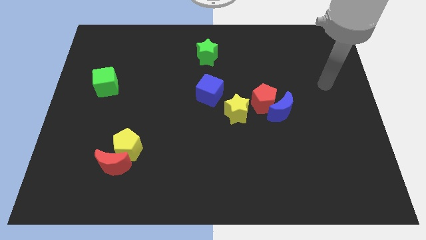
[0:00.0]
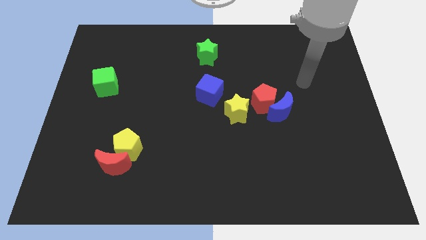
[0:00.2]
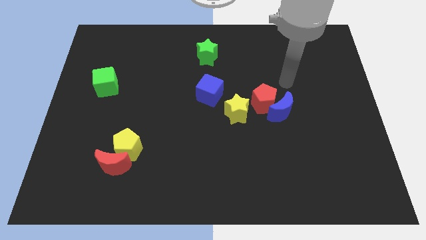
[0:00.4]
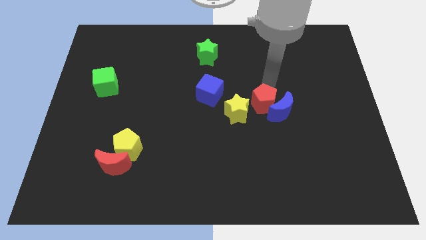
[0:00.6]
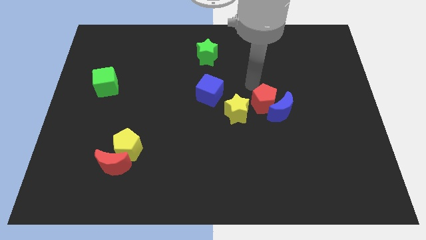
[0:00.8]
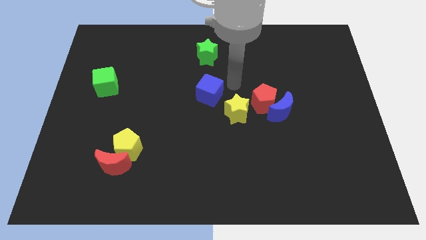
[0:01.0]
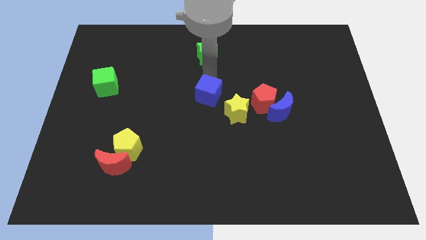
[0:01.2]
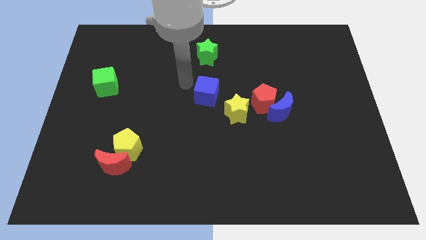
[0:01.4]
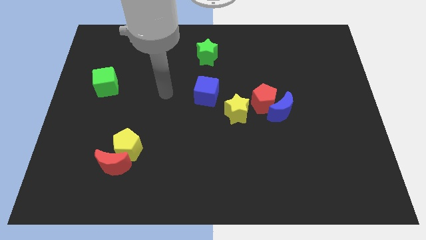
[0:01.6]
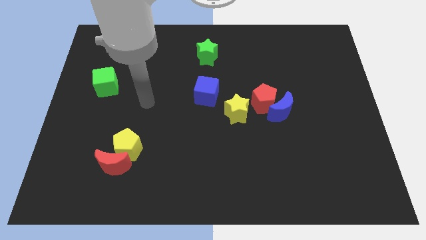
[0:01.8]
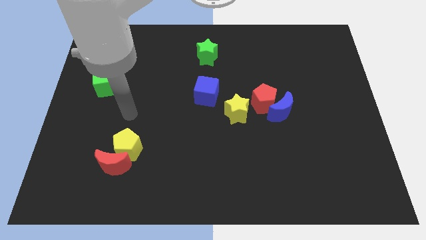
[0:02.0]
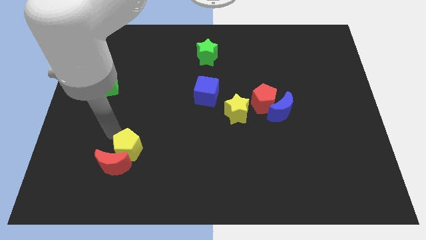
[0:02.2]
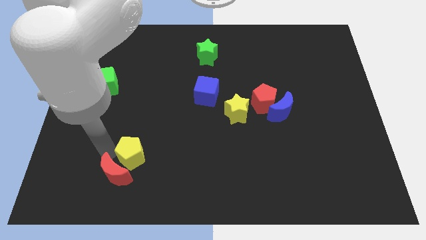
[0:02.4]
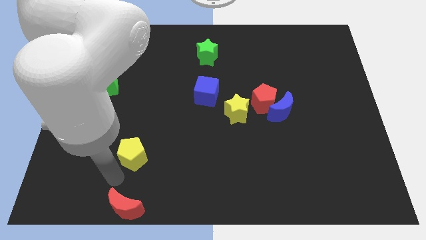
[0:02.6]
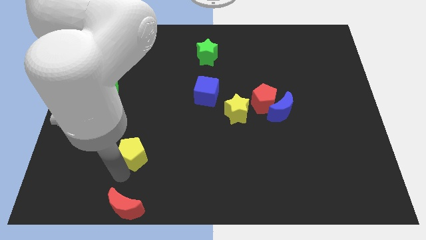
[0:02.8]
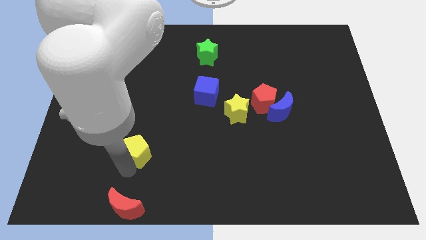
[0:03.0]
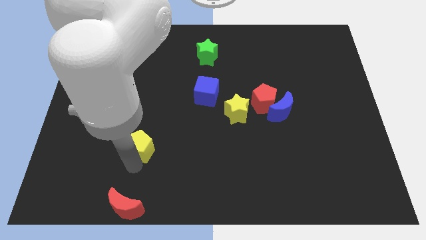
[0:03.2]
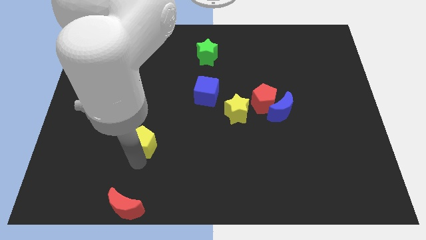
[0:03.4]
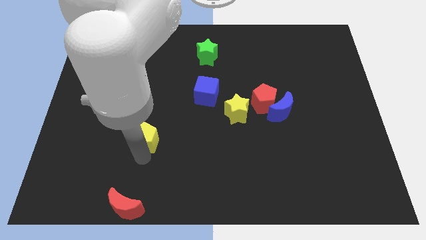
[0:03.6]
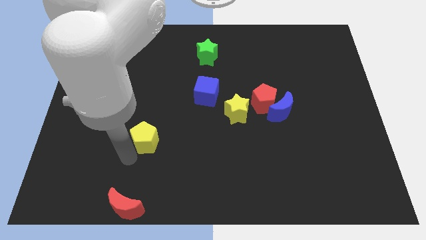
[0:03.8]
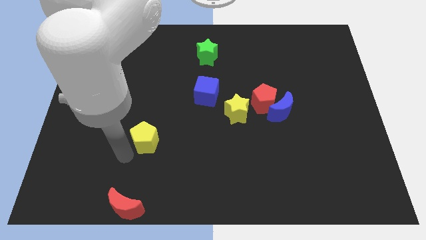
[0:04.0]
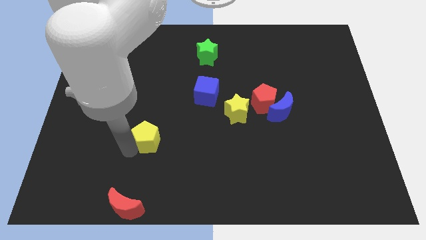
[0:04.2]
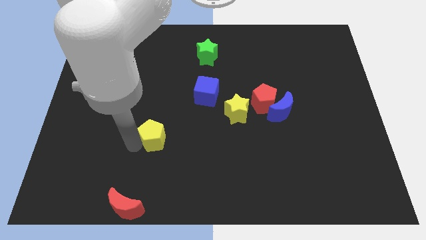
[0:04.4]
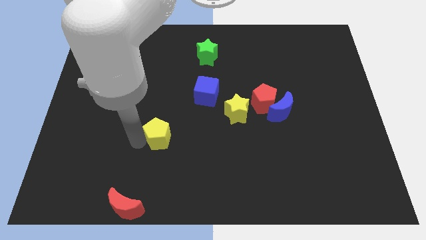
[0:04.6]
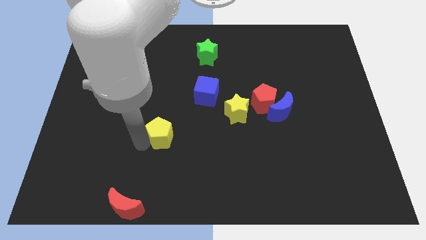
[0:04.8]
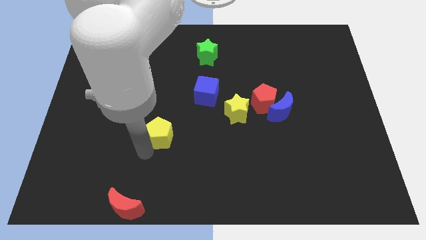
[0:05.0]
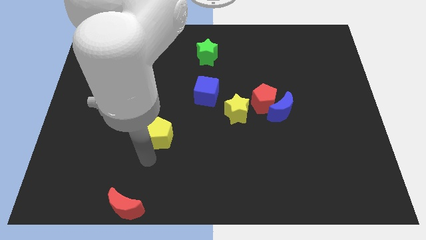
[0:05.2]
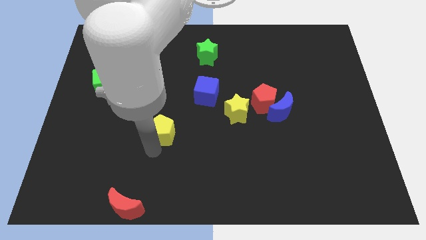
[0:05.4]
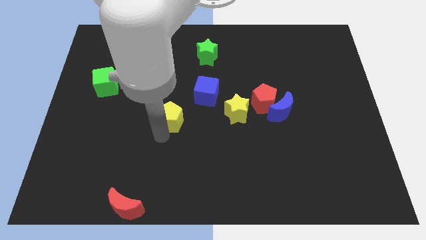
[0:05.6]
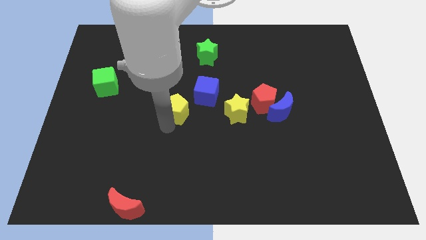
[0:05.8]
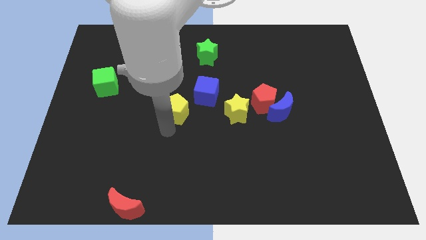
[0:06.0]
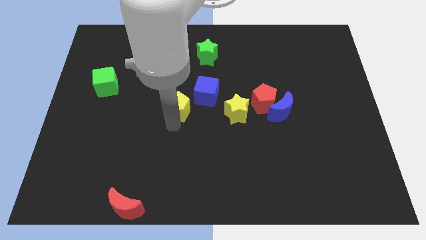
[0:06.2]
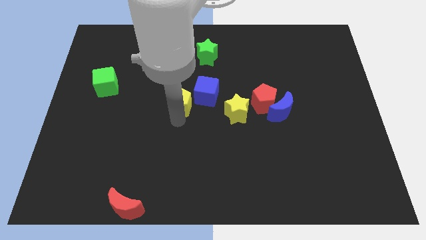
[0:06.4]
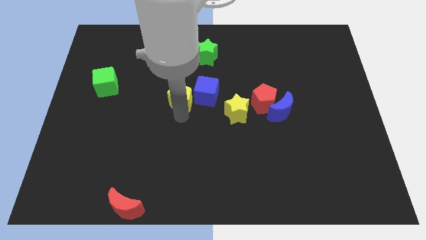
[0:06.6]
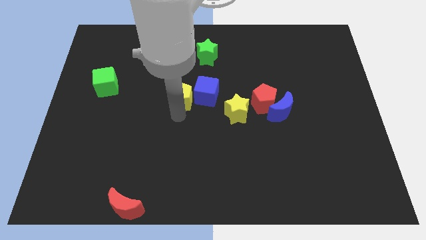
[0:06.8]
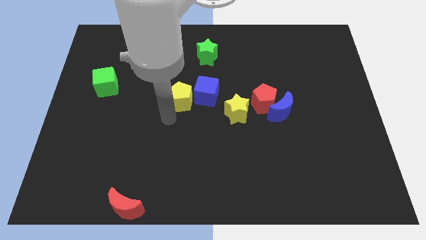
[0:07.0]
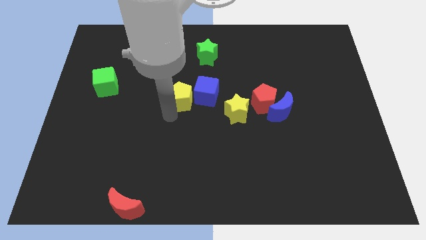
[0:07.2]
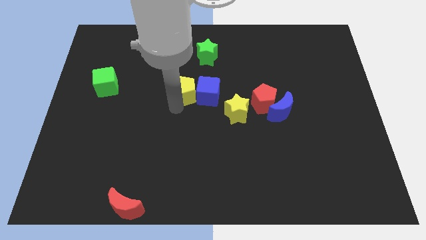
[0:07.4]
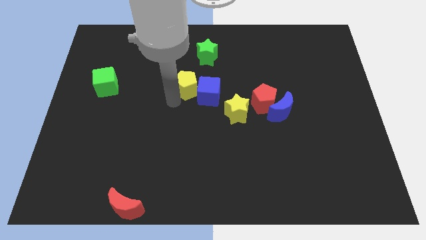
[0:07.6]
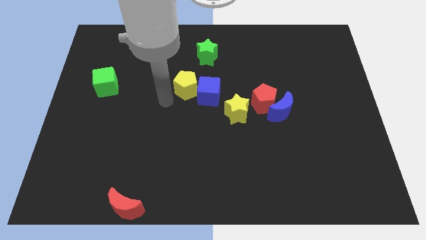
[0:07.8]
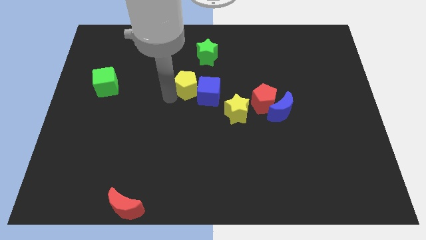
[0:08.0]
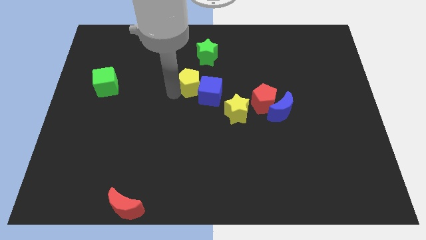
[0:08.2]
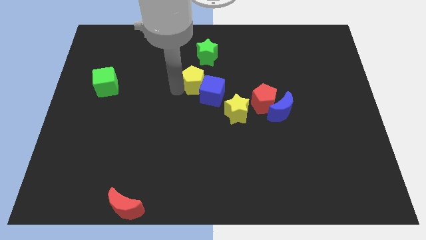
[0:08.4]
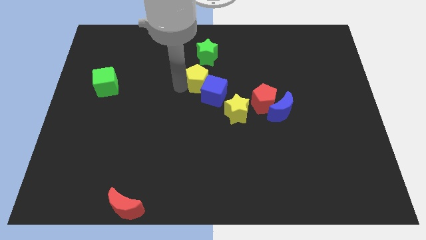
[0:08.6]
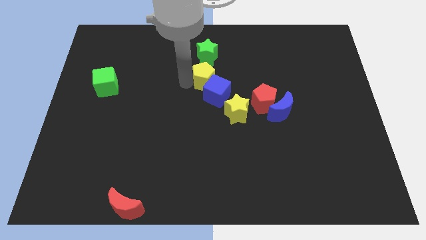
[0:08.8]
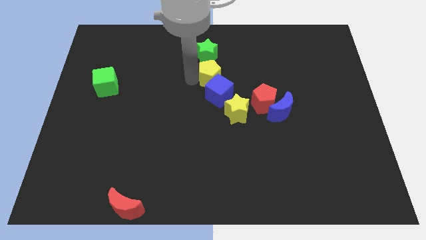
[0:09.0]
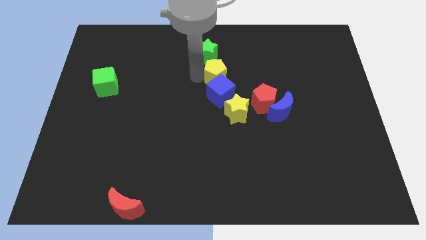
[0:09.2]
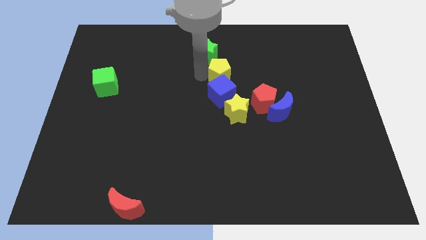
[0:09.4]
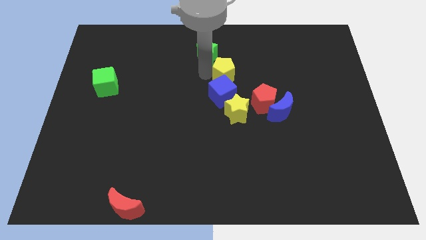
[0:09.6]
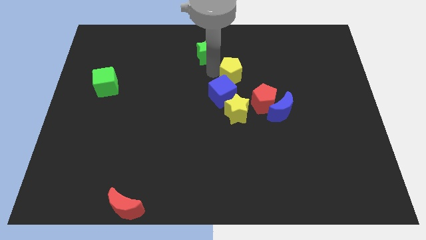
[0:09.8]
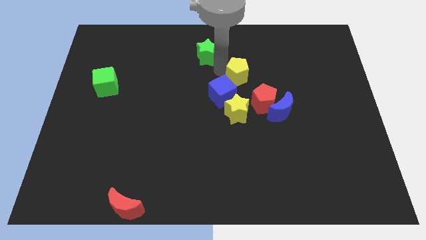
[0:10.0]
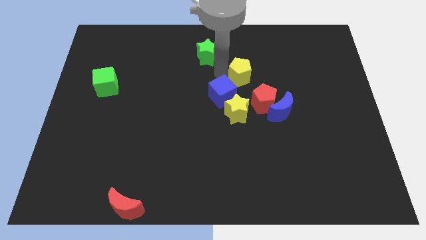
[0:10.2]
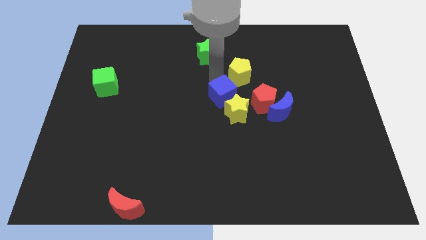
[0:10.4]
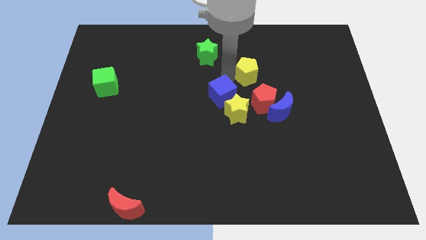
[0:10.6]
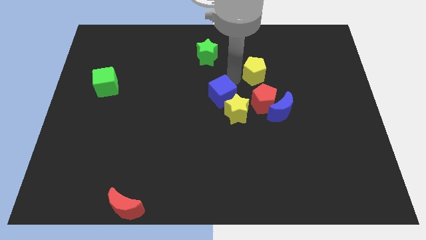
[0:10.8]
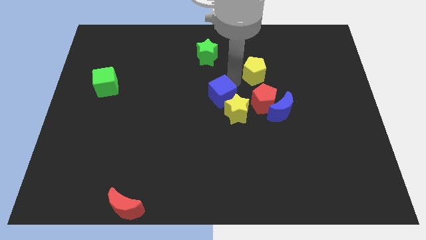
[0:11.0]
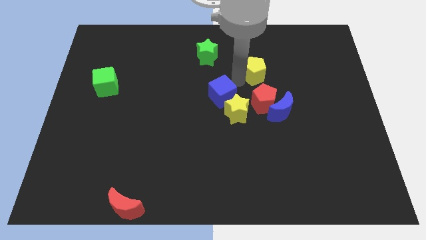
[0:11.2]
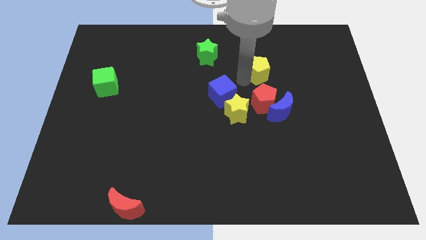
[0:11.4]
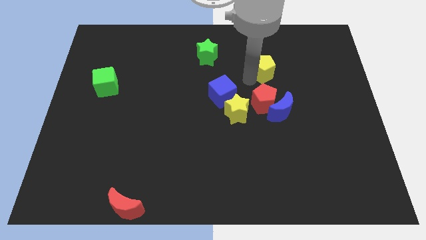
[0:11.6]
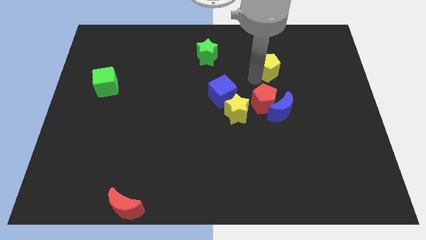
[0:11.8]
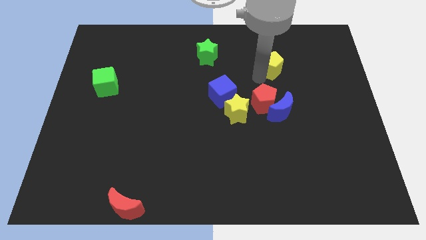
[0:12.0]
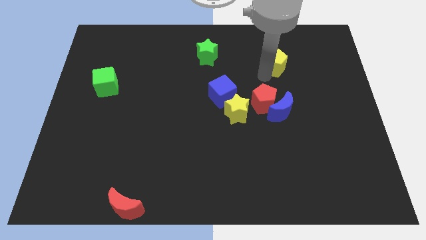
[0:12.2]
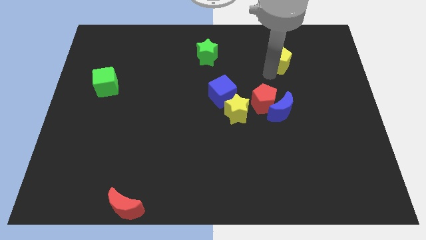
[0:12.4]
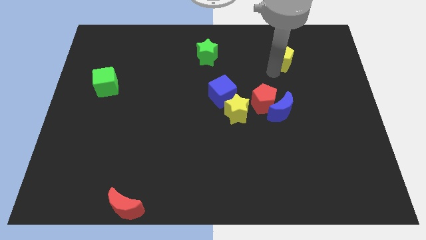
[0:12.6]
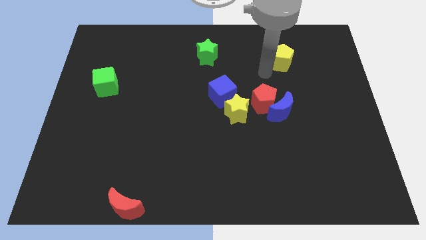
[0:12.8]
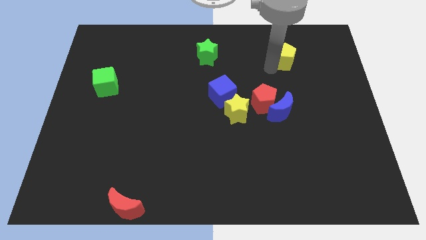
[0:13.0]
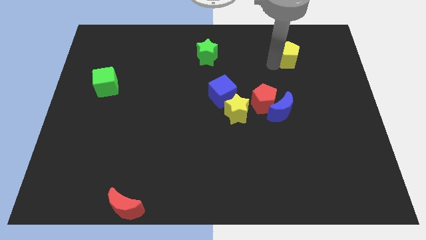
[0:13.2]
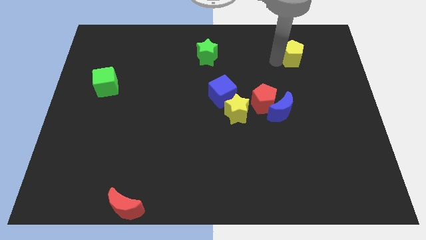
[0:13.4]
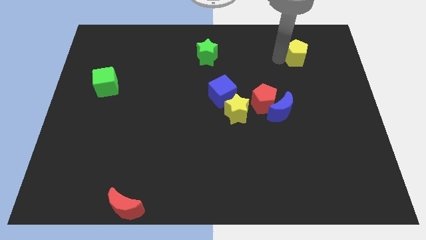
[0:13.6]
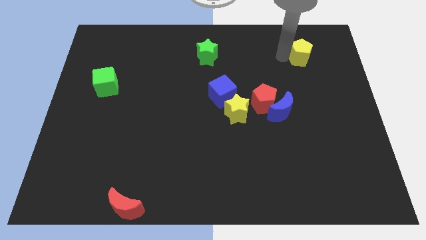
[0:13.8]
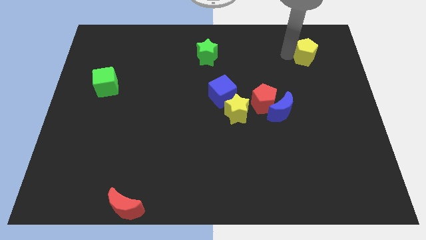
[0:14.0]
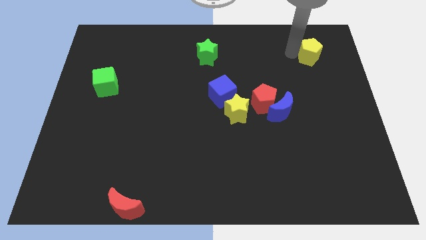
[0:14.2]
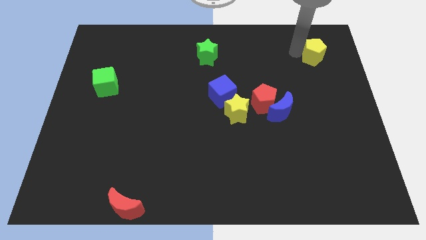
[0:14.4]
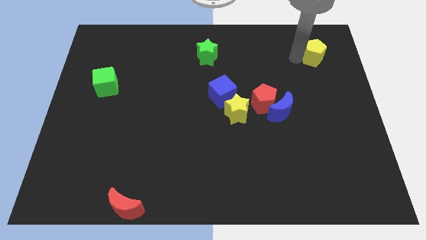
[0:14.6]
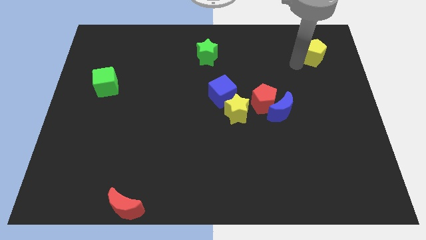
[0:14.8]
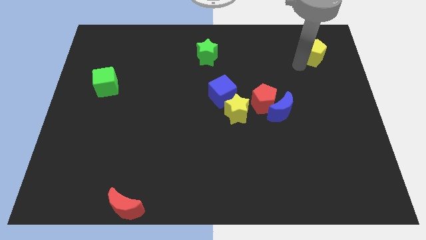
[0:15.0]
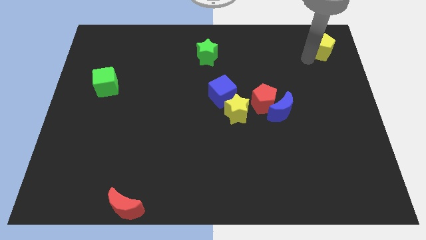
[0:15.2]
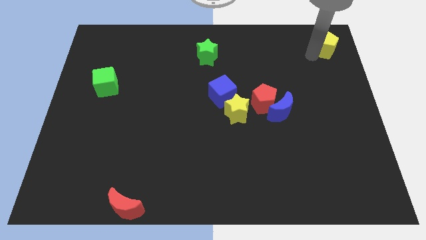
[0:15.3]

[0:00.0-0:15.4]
move the yellow pentagon to the upper right corner
